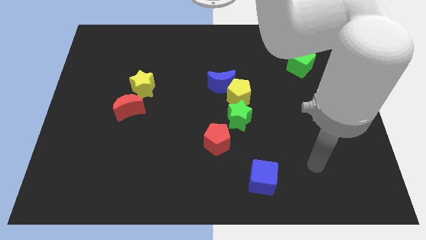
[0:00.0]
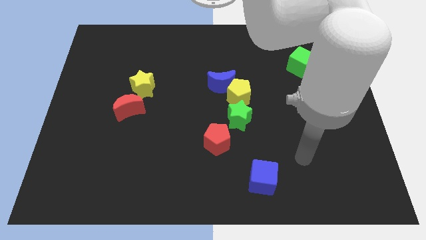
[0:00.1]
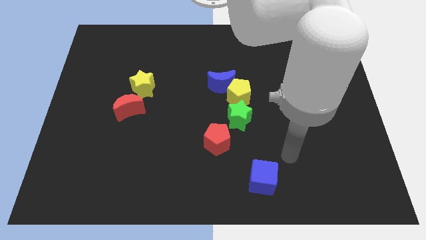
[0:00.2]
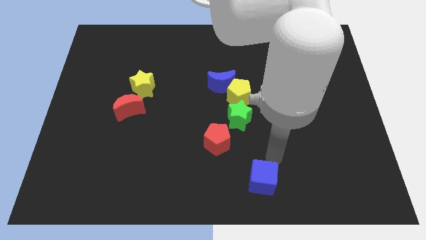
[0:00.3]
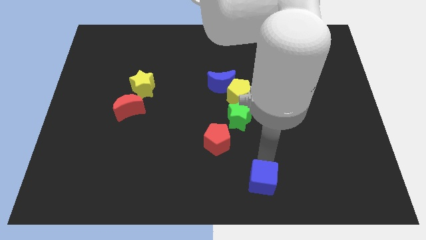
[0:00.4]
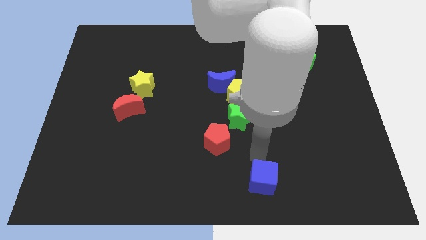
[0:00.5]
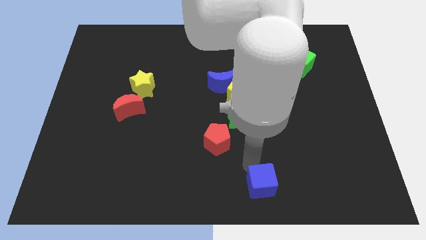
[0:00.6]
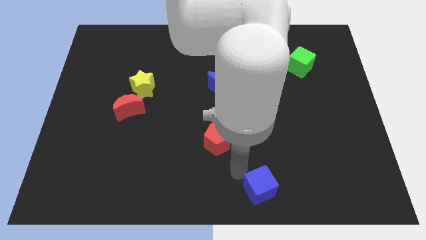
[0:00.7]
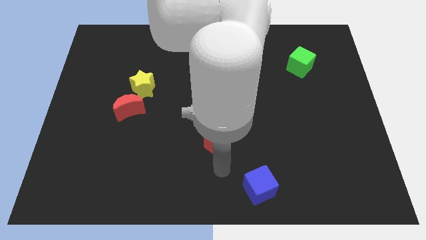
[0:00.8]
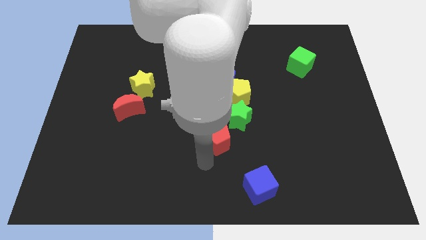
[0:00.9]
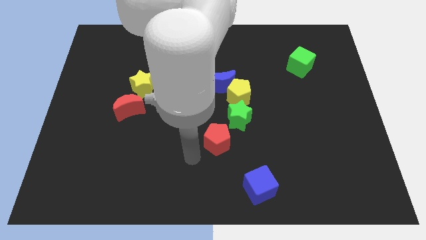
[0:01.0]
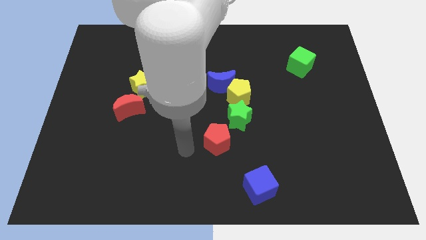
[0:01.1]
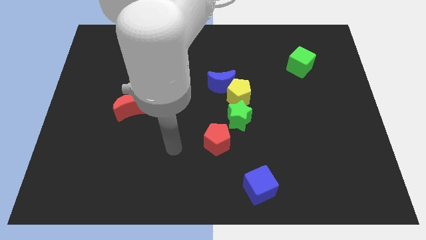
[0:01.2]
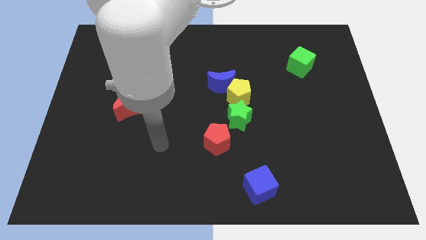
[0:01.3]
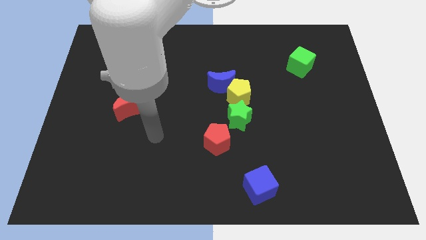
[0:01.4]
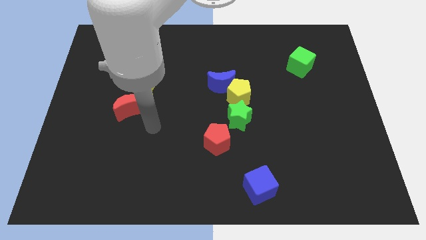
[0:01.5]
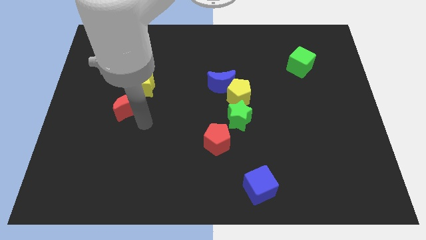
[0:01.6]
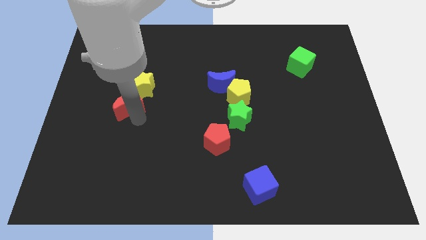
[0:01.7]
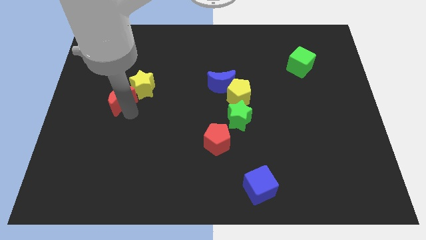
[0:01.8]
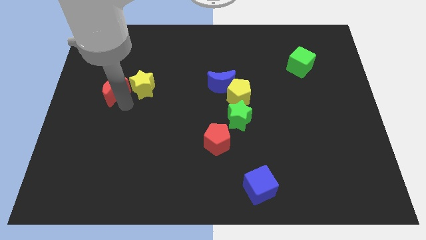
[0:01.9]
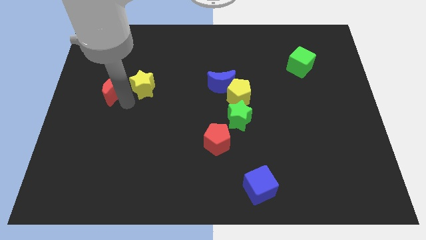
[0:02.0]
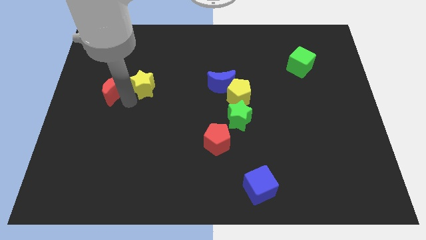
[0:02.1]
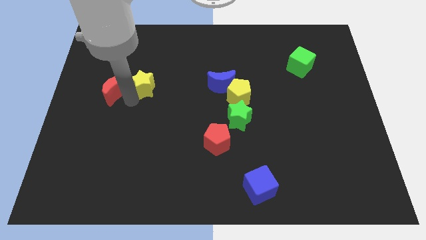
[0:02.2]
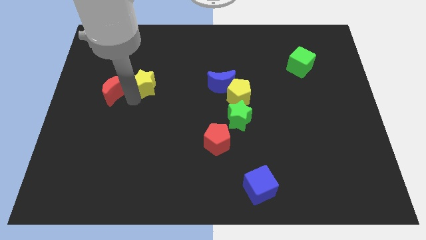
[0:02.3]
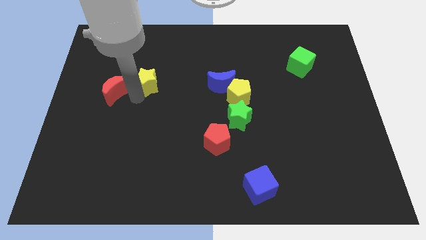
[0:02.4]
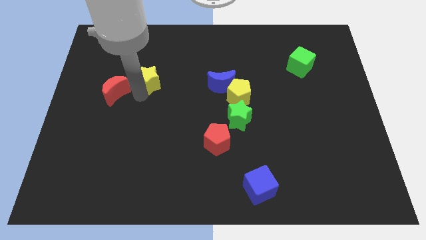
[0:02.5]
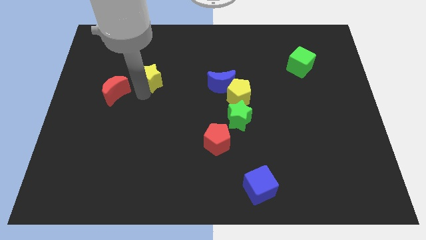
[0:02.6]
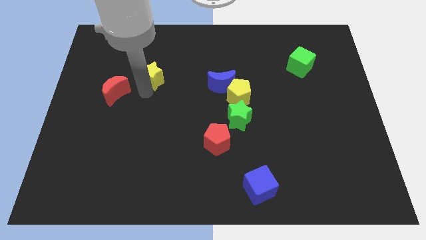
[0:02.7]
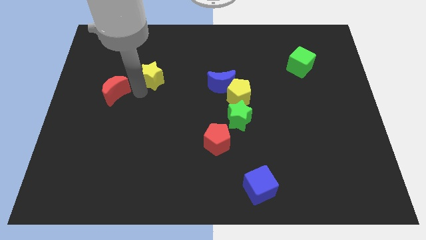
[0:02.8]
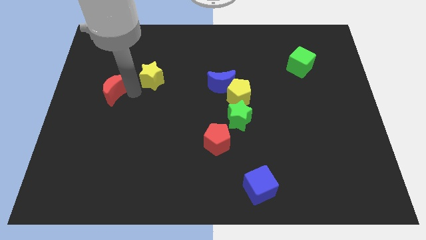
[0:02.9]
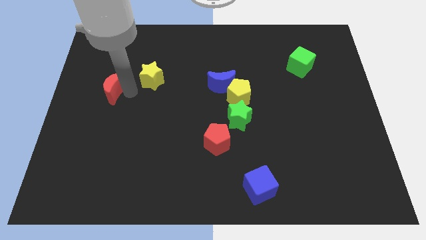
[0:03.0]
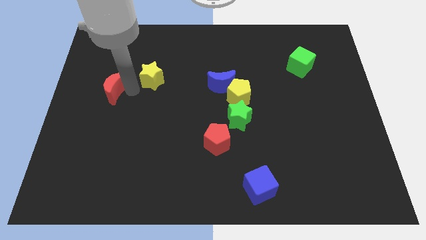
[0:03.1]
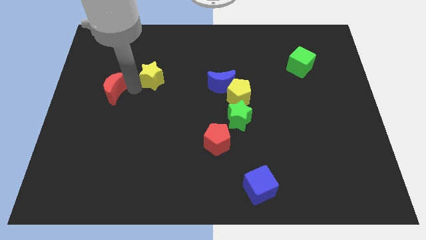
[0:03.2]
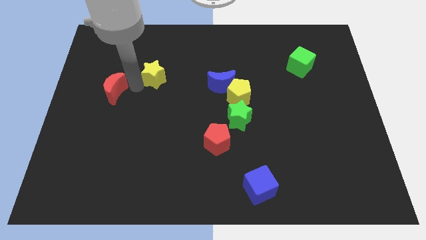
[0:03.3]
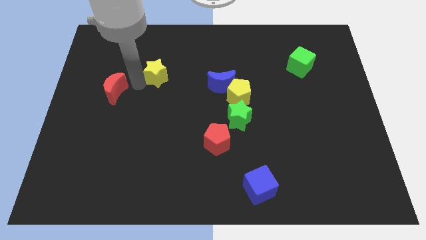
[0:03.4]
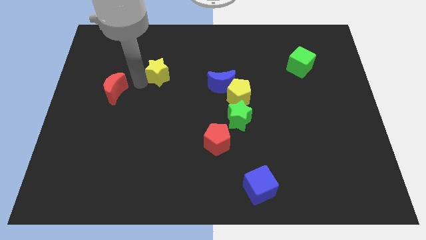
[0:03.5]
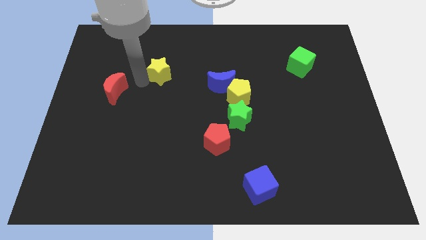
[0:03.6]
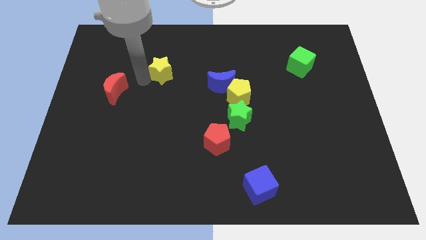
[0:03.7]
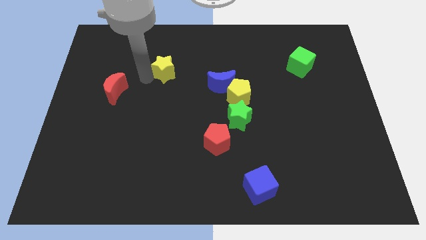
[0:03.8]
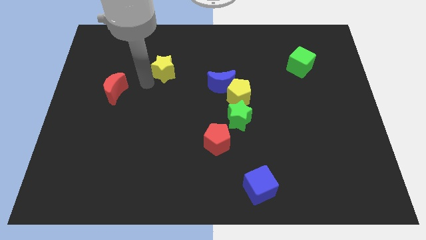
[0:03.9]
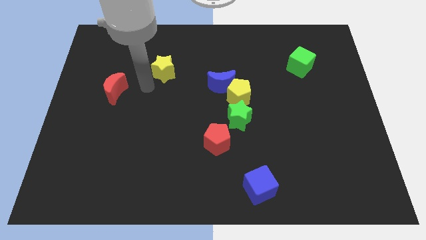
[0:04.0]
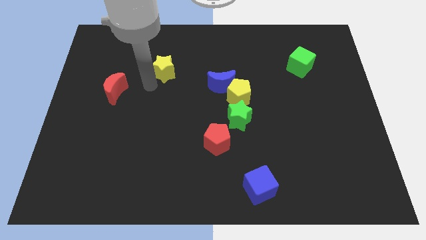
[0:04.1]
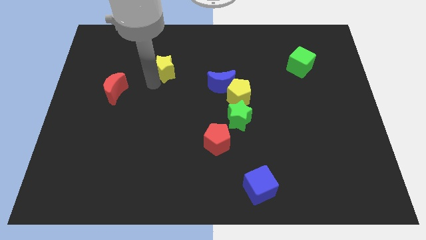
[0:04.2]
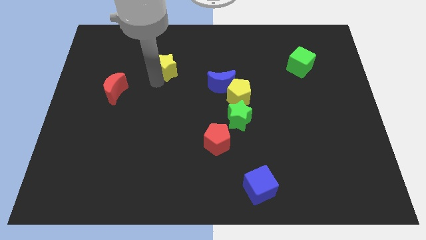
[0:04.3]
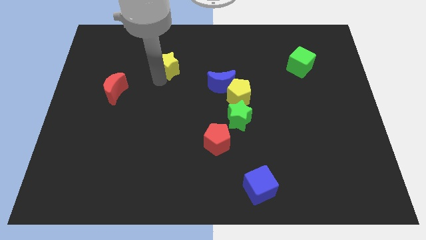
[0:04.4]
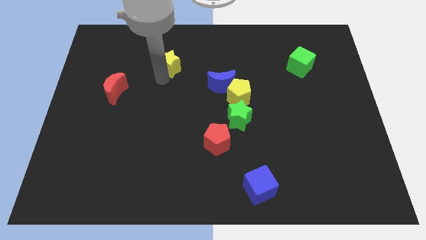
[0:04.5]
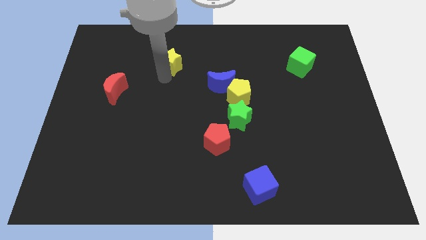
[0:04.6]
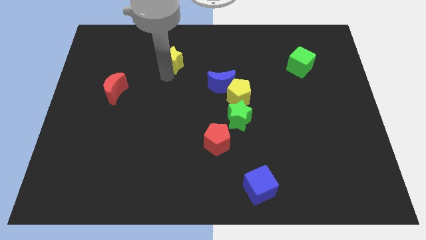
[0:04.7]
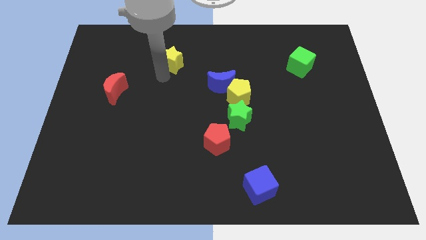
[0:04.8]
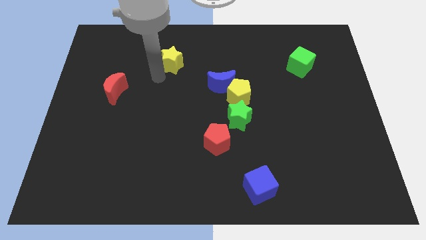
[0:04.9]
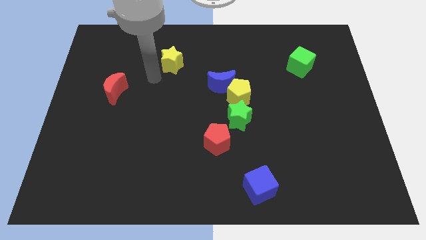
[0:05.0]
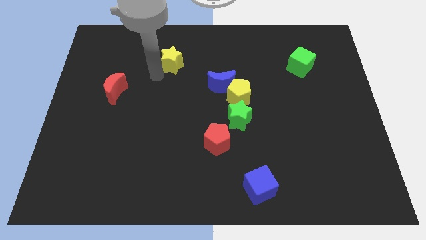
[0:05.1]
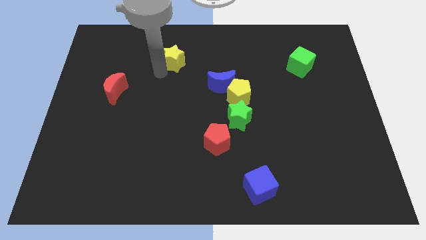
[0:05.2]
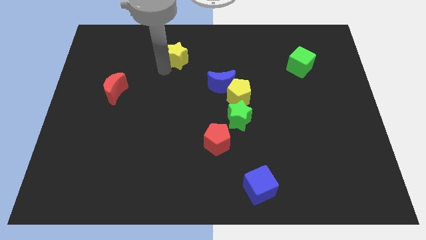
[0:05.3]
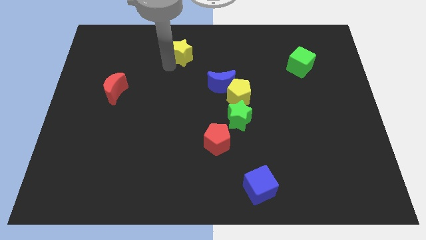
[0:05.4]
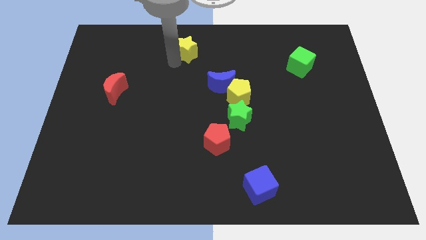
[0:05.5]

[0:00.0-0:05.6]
push the yellow star to the top

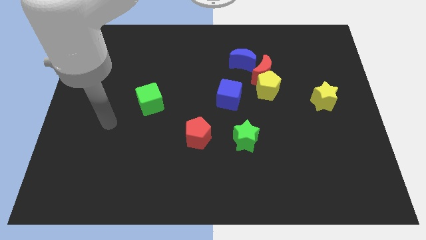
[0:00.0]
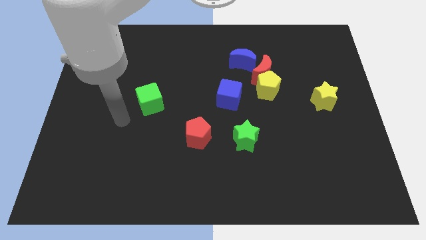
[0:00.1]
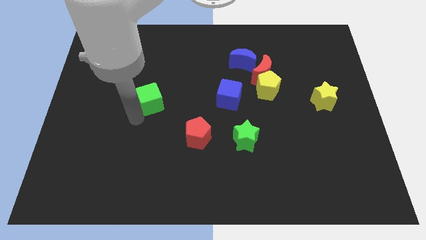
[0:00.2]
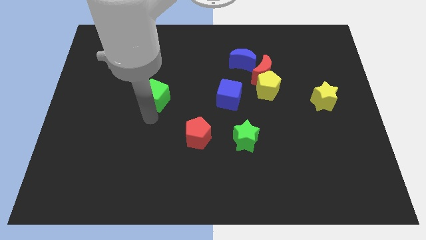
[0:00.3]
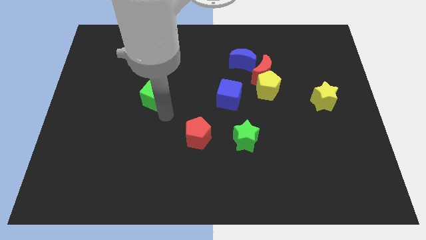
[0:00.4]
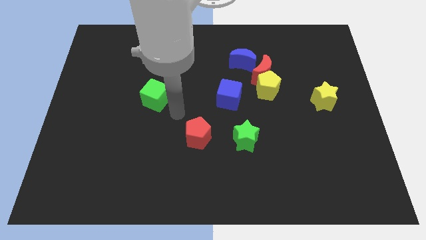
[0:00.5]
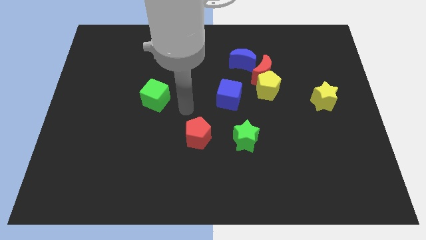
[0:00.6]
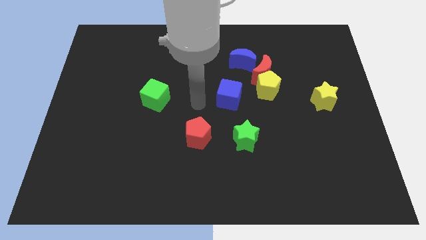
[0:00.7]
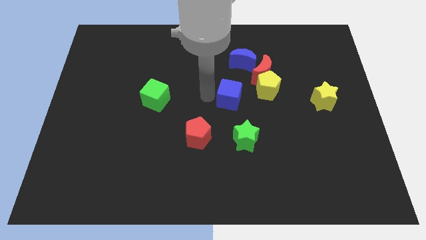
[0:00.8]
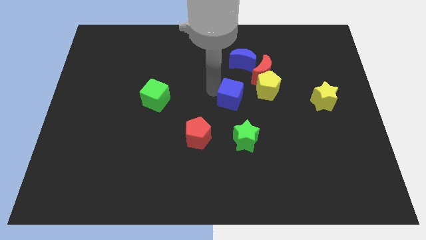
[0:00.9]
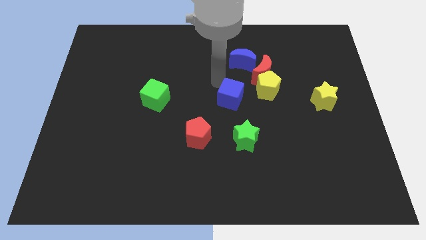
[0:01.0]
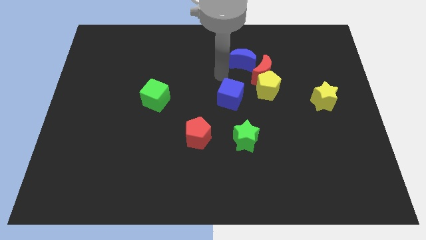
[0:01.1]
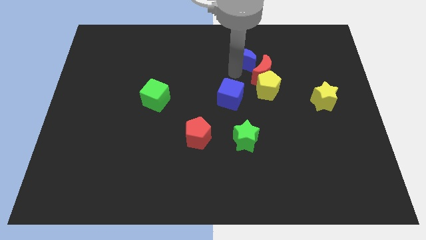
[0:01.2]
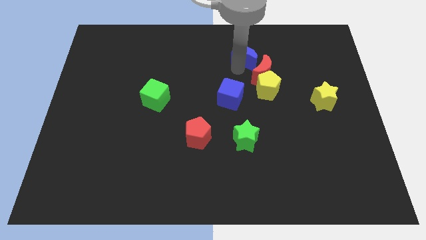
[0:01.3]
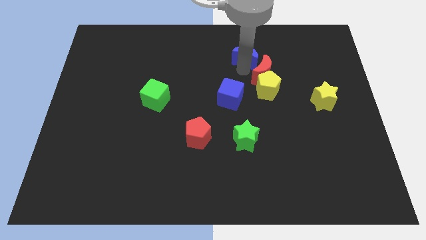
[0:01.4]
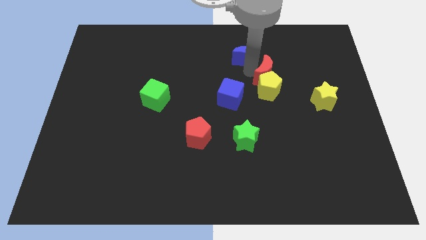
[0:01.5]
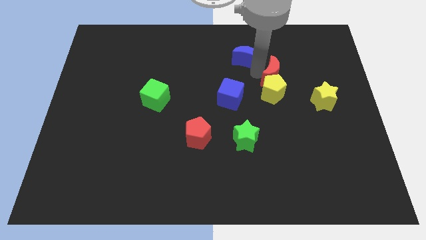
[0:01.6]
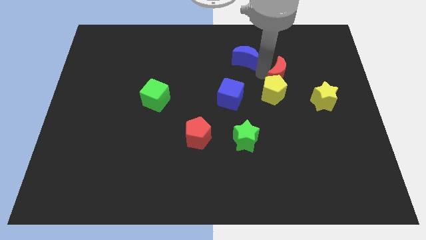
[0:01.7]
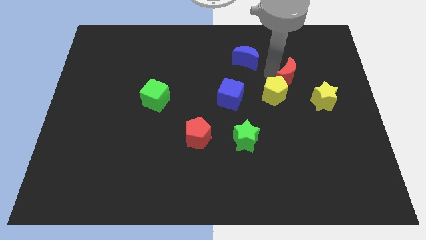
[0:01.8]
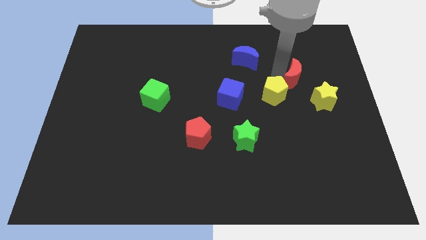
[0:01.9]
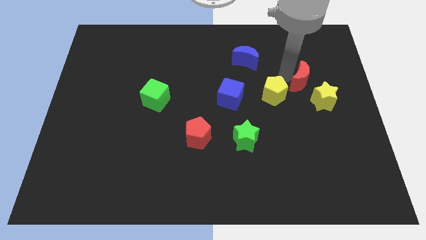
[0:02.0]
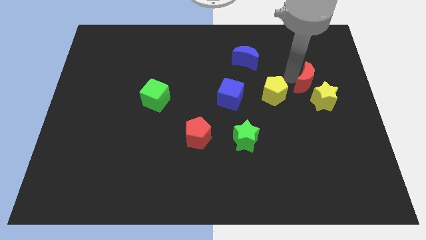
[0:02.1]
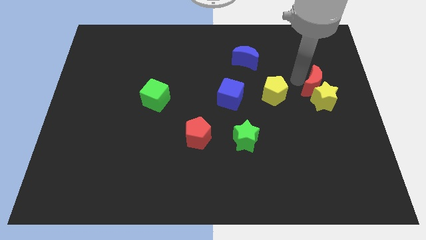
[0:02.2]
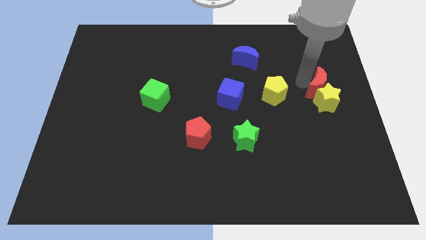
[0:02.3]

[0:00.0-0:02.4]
put the red moon to the right side of the board
